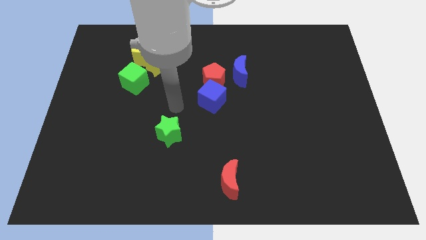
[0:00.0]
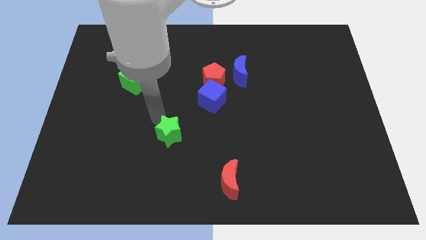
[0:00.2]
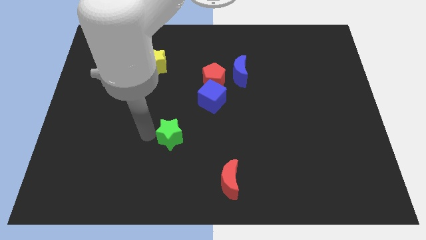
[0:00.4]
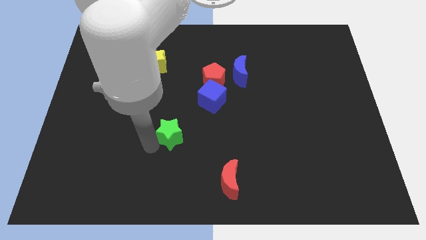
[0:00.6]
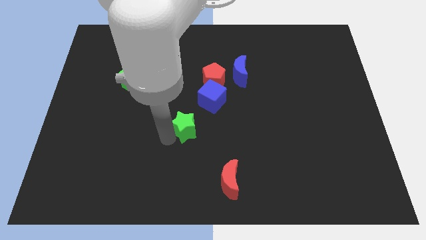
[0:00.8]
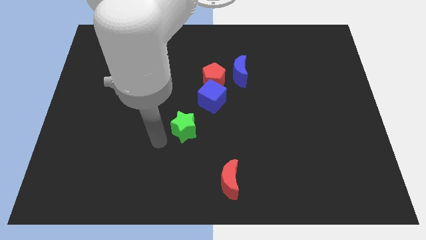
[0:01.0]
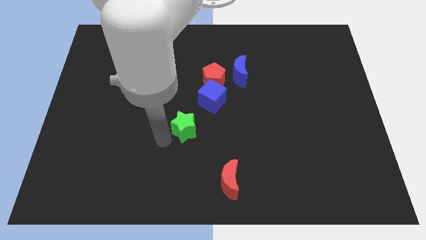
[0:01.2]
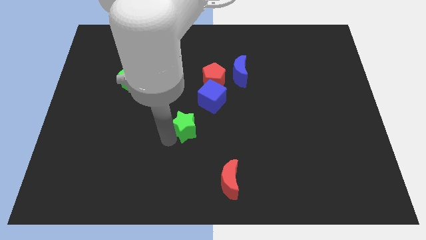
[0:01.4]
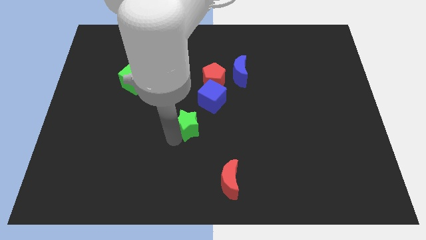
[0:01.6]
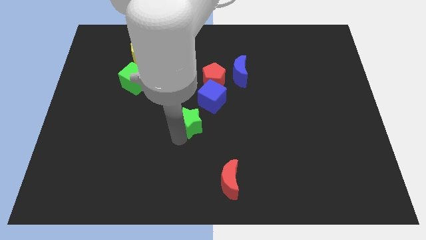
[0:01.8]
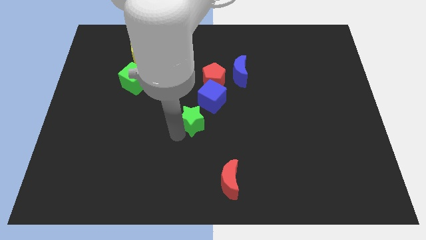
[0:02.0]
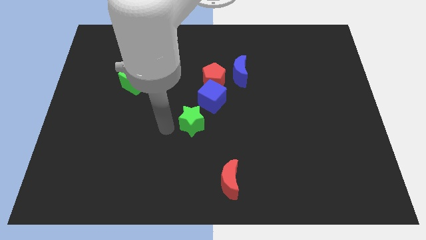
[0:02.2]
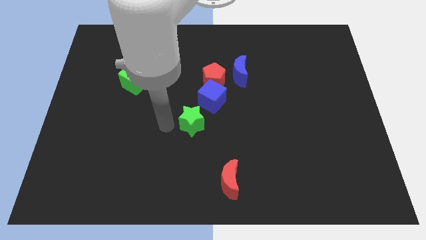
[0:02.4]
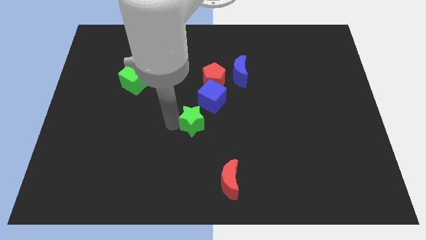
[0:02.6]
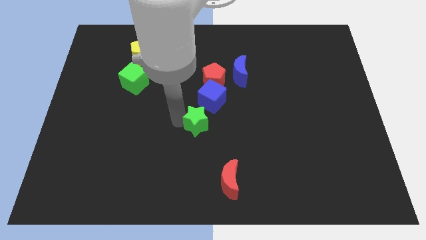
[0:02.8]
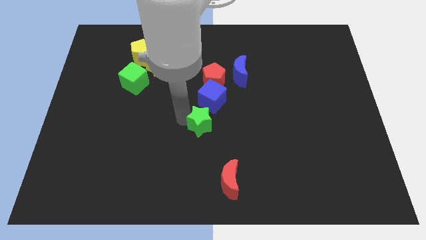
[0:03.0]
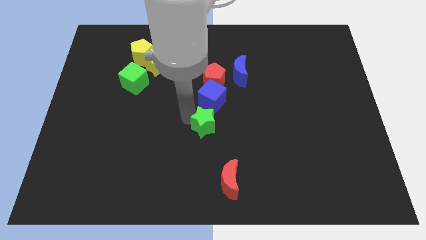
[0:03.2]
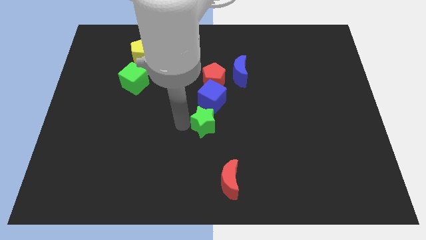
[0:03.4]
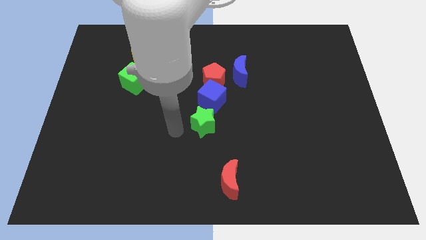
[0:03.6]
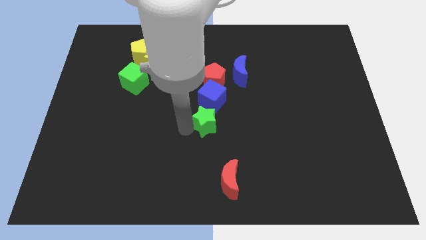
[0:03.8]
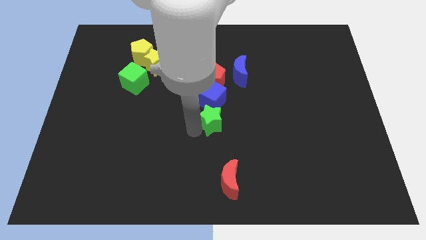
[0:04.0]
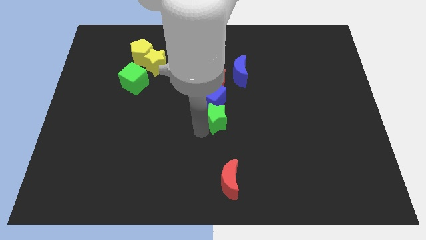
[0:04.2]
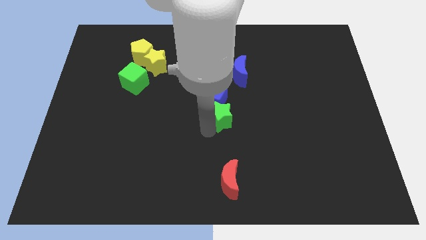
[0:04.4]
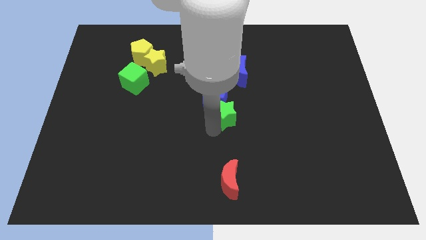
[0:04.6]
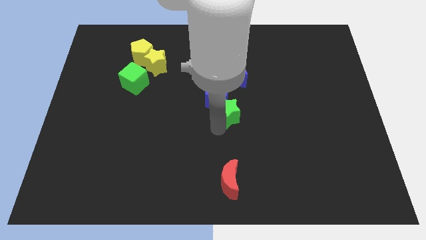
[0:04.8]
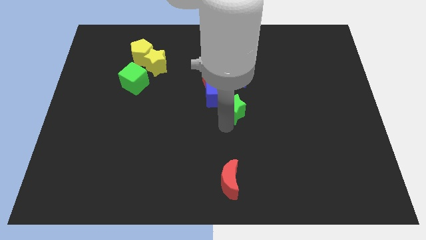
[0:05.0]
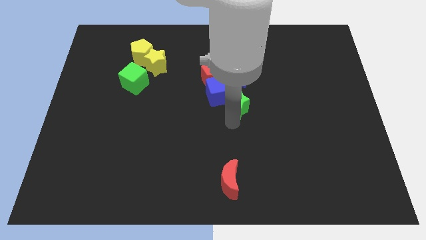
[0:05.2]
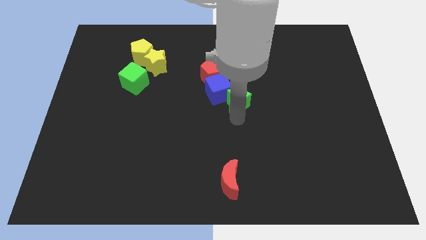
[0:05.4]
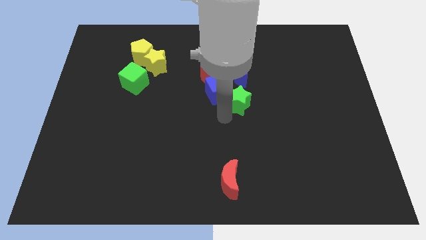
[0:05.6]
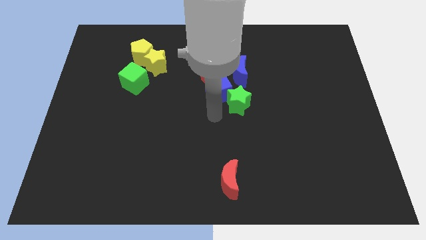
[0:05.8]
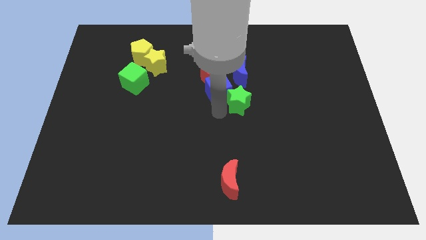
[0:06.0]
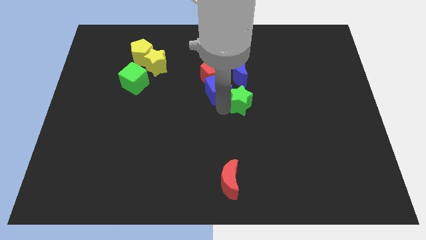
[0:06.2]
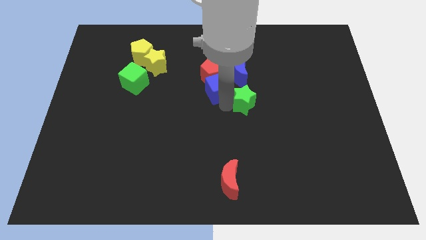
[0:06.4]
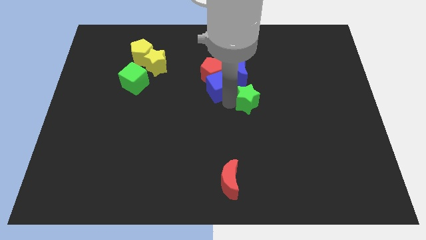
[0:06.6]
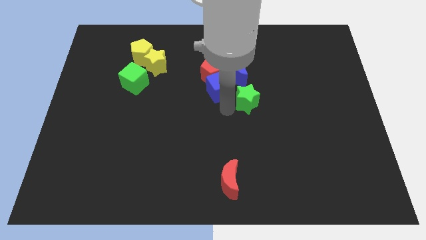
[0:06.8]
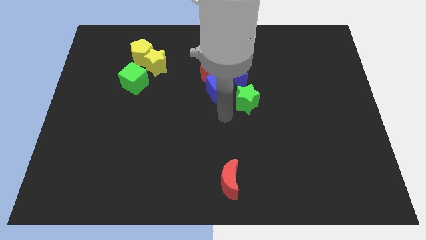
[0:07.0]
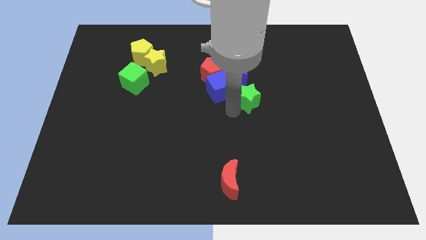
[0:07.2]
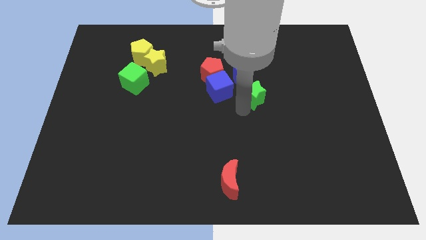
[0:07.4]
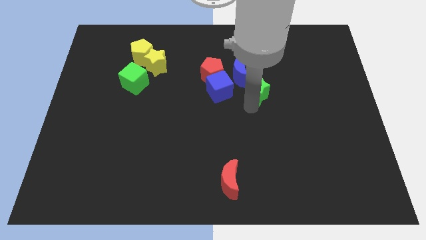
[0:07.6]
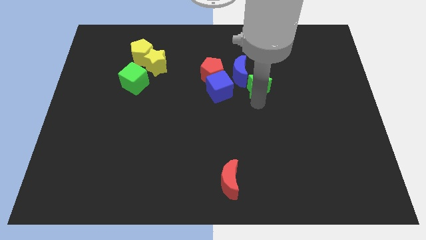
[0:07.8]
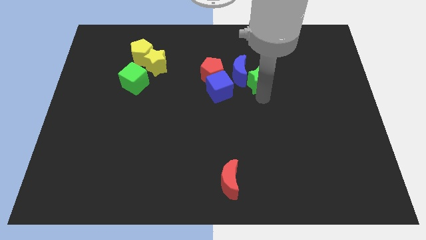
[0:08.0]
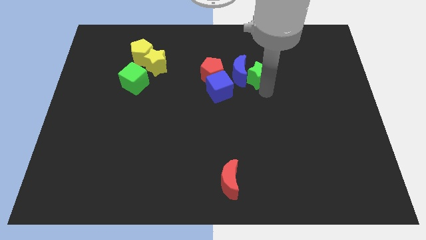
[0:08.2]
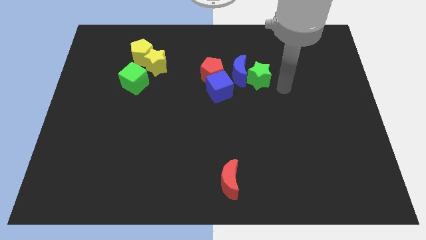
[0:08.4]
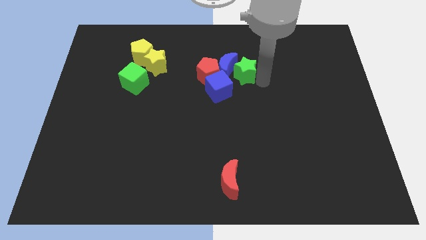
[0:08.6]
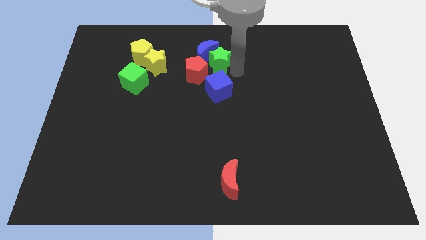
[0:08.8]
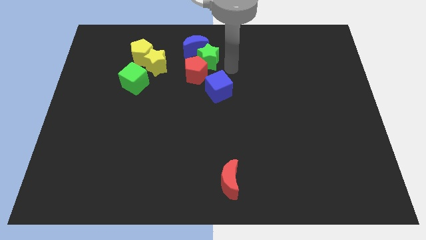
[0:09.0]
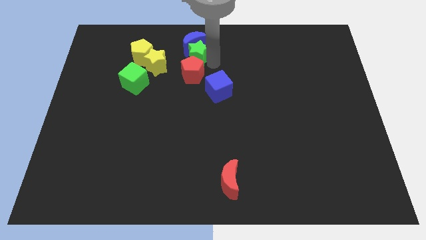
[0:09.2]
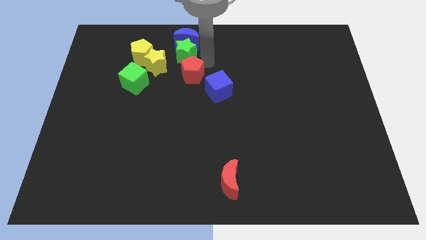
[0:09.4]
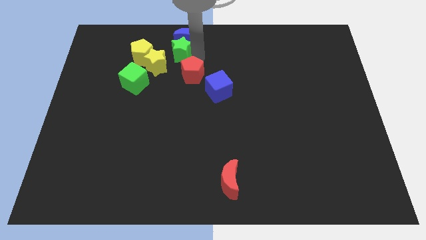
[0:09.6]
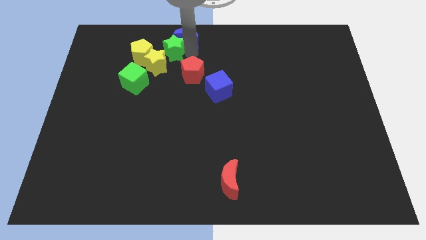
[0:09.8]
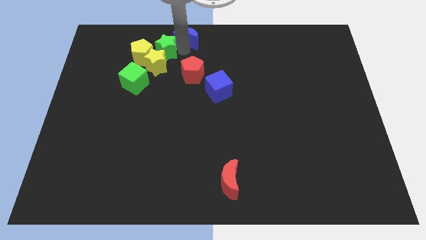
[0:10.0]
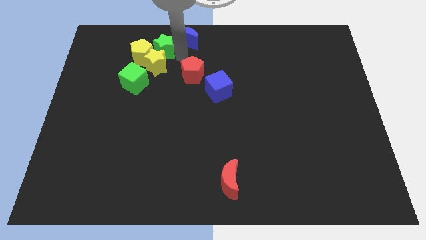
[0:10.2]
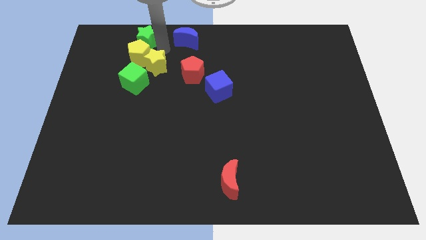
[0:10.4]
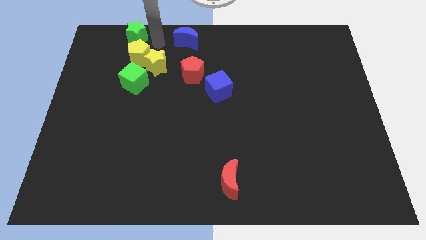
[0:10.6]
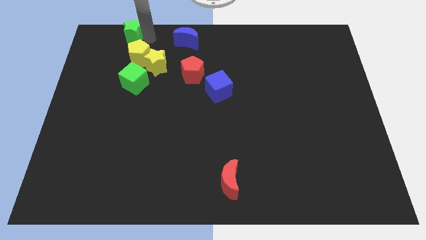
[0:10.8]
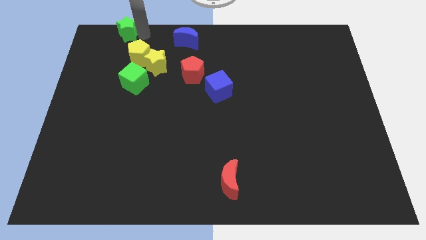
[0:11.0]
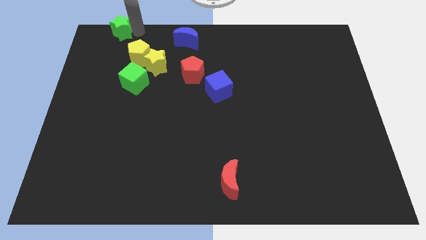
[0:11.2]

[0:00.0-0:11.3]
slide the green star to the top left corner

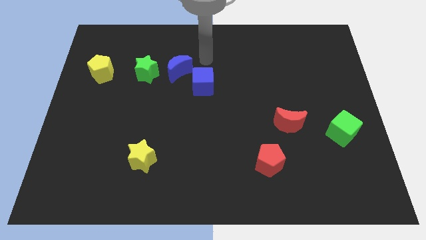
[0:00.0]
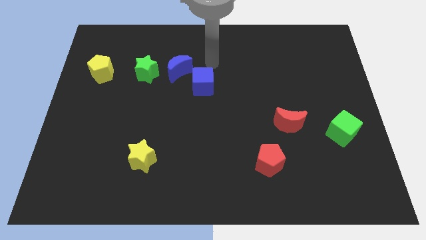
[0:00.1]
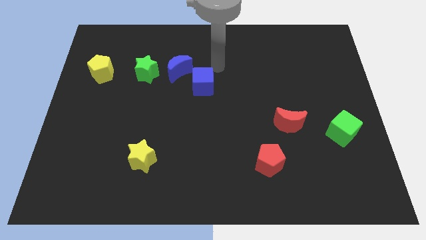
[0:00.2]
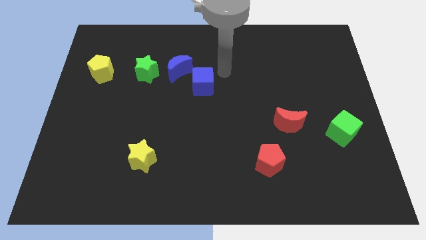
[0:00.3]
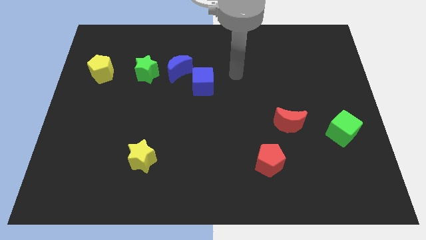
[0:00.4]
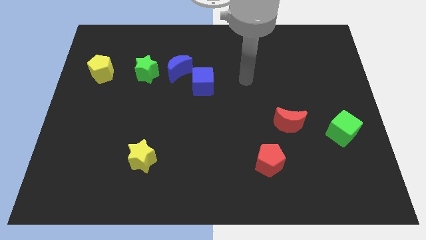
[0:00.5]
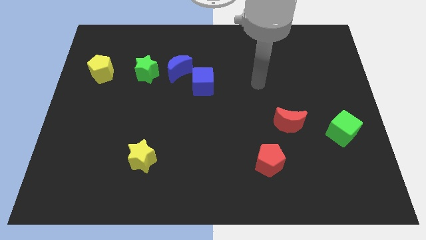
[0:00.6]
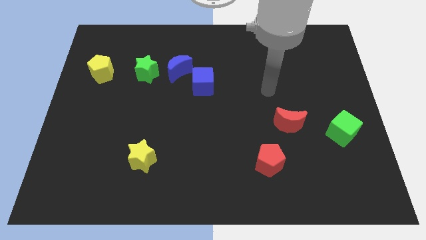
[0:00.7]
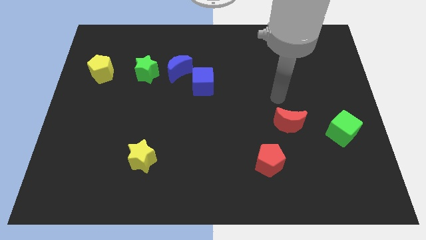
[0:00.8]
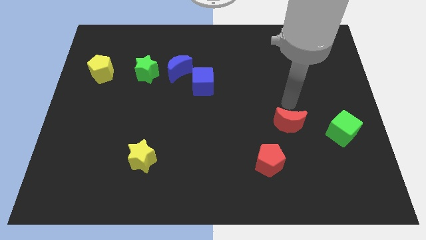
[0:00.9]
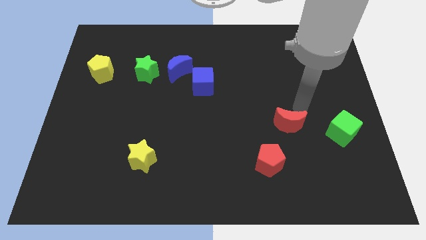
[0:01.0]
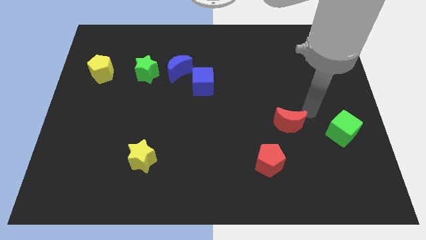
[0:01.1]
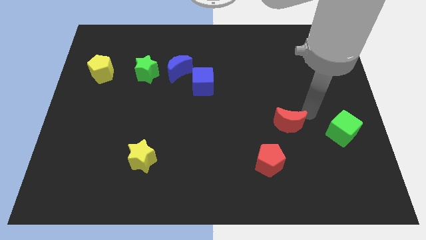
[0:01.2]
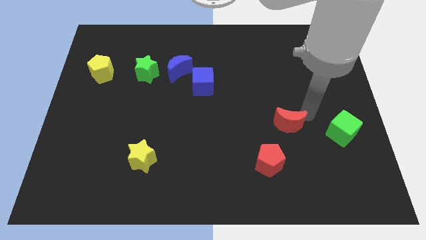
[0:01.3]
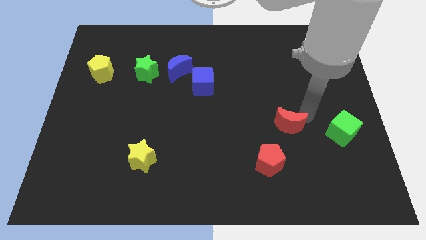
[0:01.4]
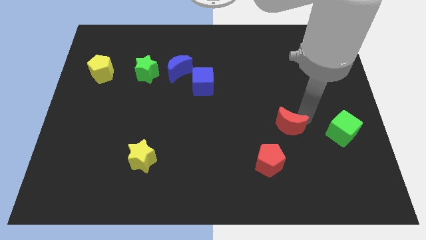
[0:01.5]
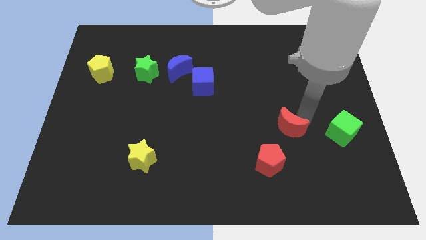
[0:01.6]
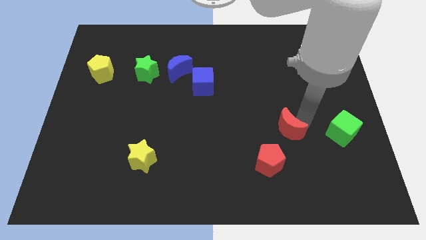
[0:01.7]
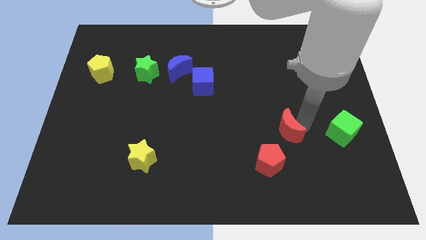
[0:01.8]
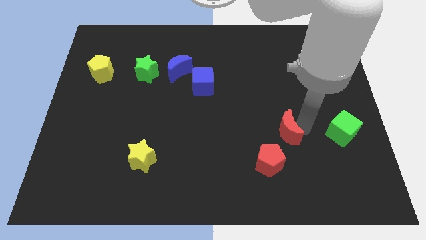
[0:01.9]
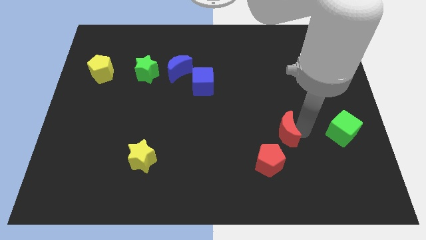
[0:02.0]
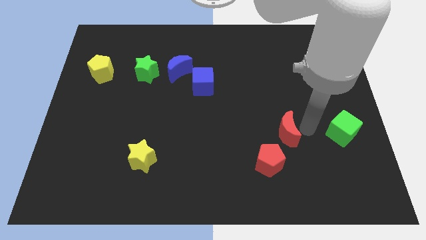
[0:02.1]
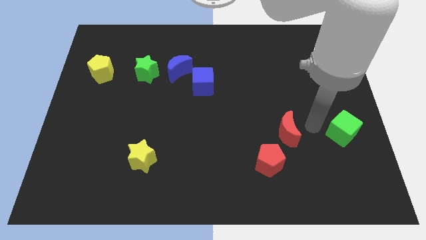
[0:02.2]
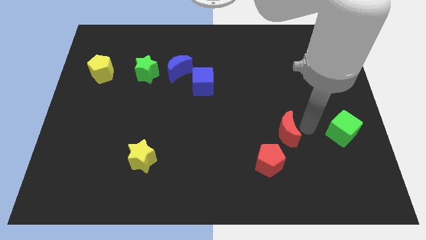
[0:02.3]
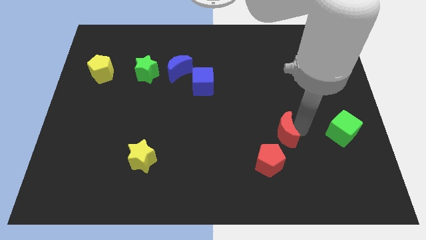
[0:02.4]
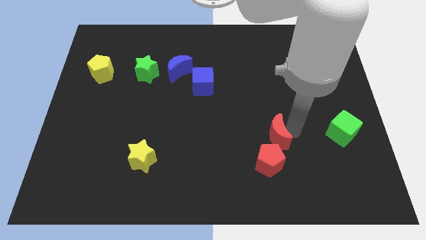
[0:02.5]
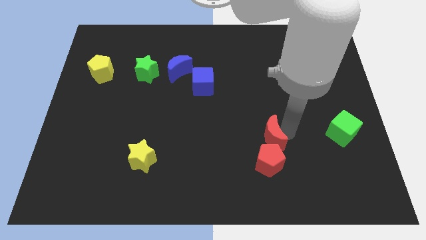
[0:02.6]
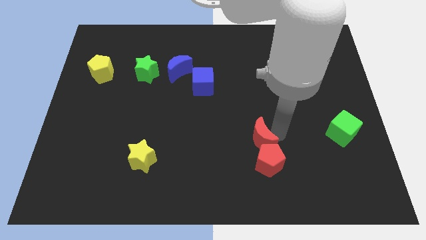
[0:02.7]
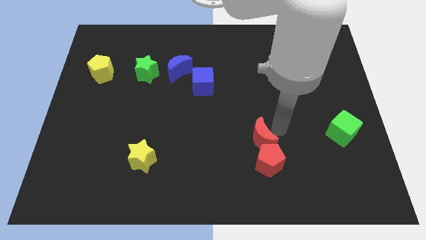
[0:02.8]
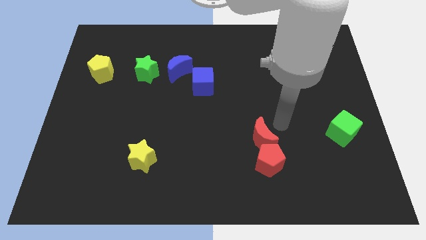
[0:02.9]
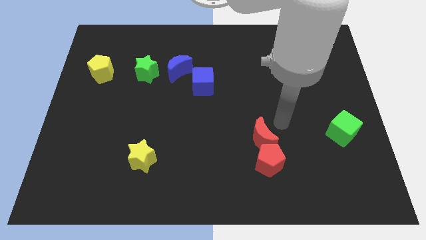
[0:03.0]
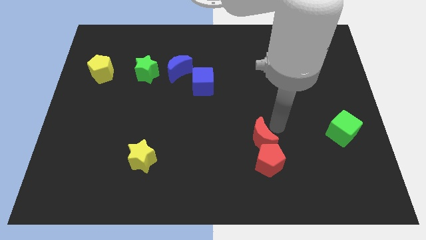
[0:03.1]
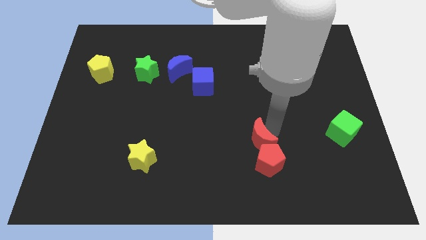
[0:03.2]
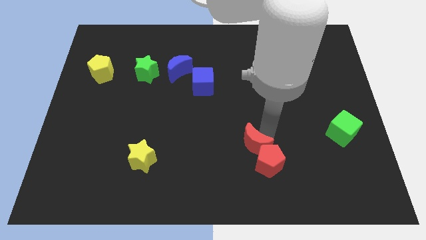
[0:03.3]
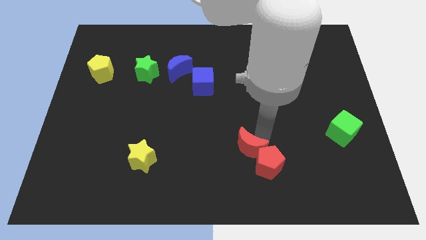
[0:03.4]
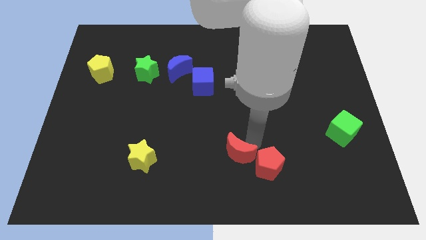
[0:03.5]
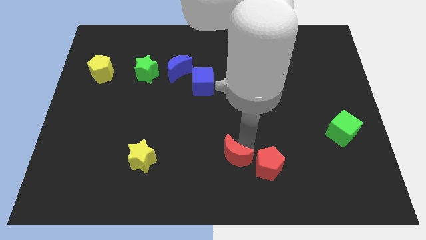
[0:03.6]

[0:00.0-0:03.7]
move the red moon to the bottom side
